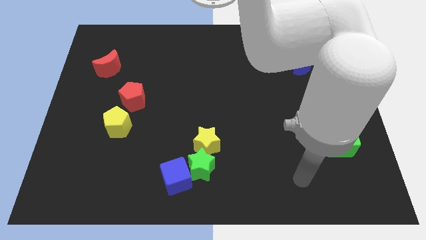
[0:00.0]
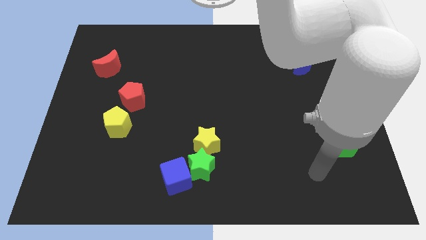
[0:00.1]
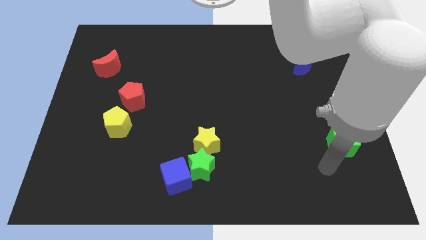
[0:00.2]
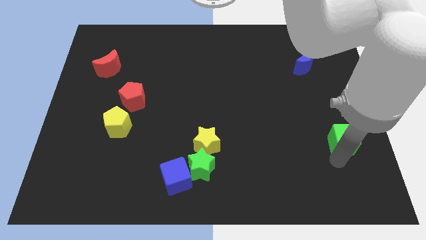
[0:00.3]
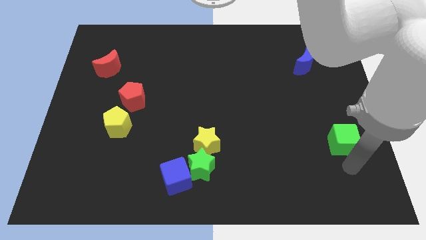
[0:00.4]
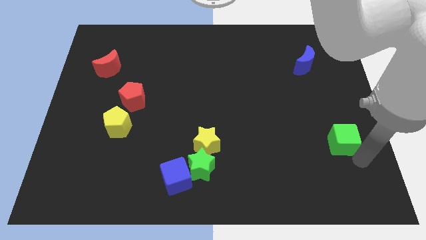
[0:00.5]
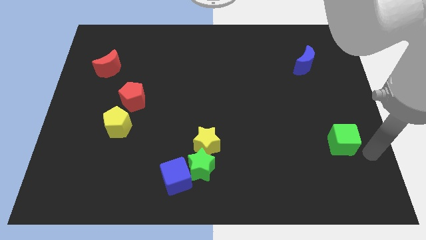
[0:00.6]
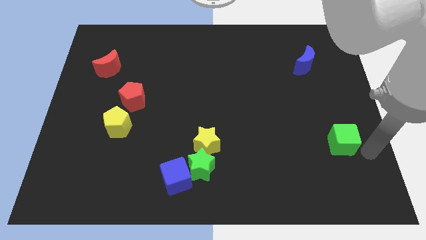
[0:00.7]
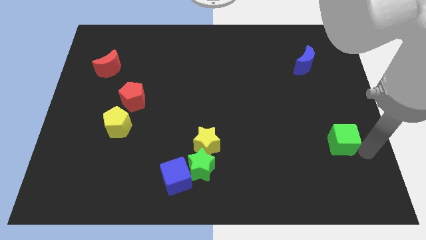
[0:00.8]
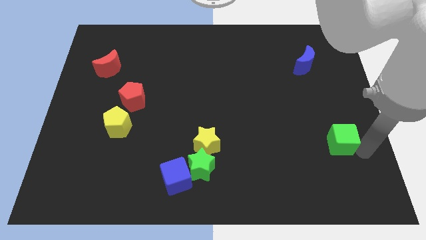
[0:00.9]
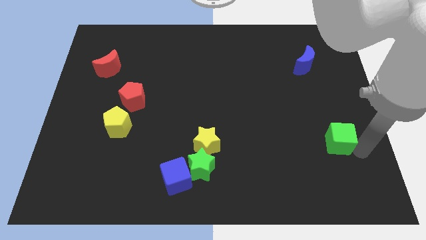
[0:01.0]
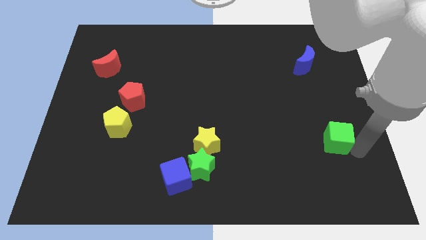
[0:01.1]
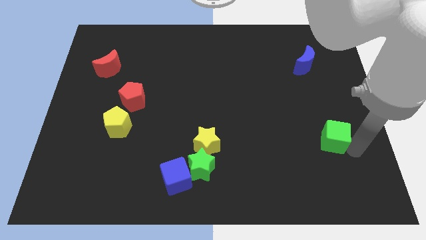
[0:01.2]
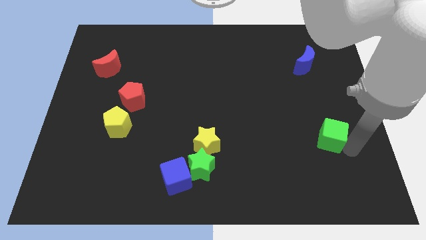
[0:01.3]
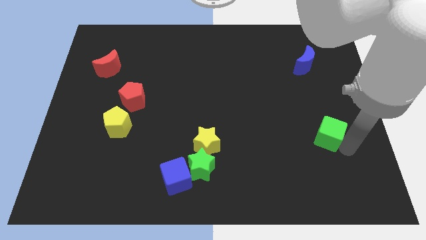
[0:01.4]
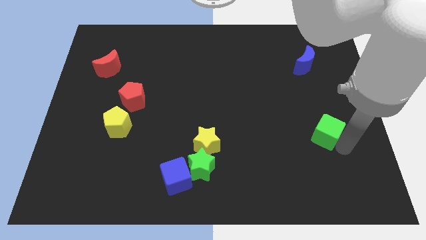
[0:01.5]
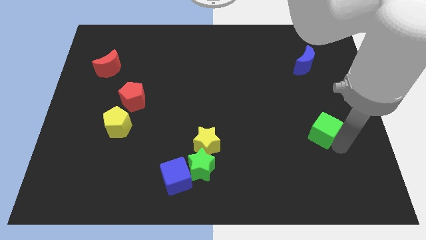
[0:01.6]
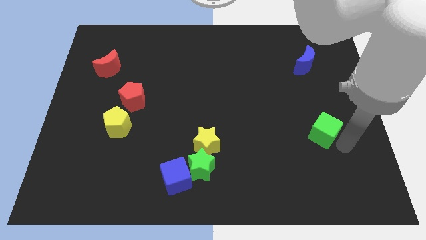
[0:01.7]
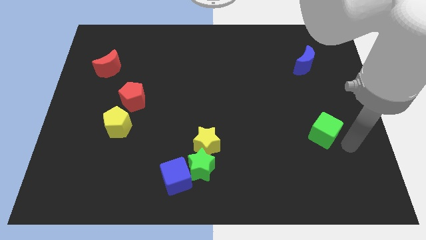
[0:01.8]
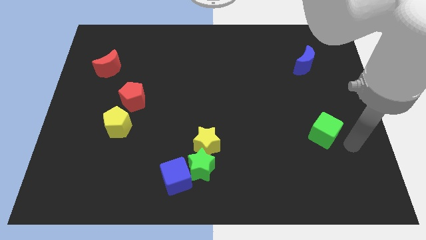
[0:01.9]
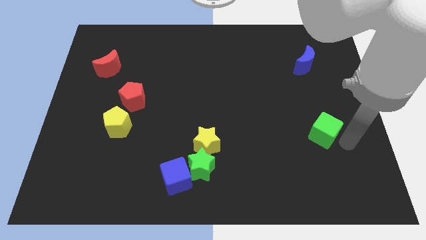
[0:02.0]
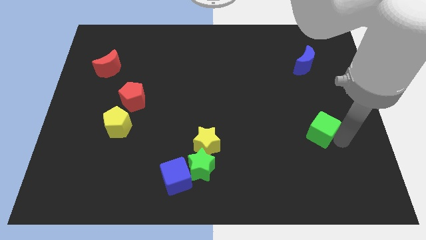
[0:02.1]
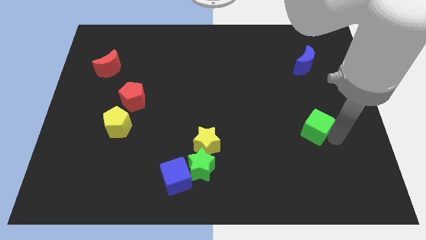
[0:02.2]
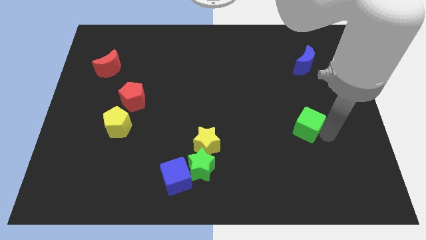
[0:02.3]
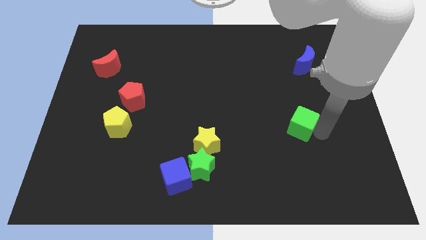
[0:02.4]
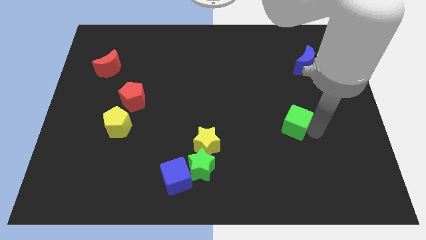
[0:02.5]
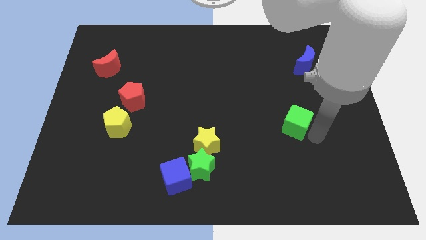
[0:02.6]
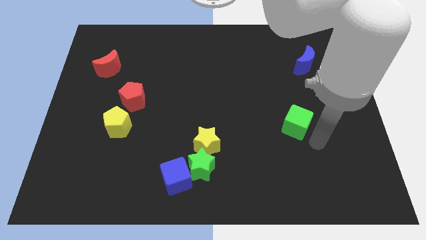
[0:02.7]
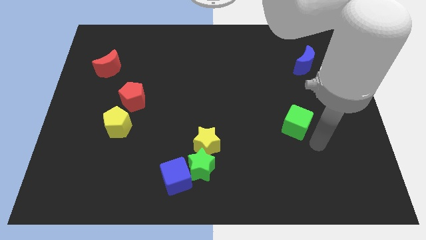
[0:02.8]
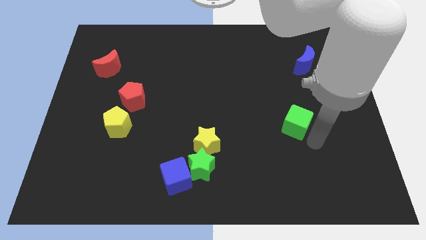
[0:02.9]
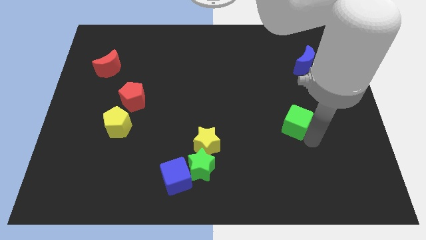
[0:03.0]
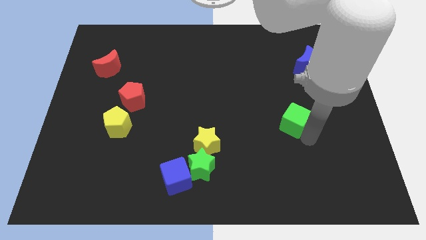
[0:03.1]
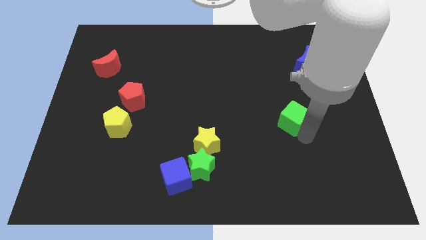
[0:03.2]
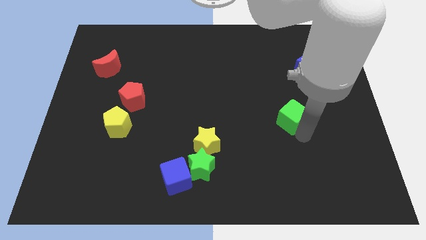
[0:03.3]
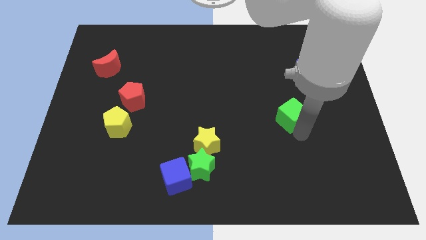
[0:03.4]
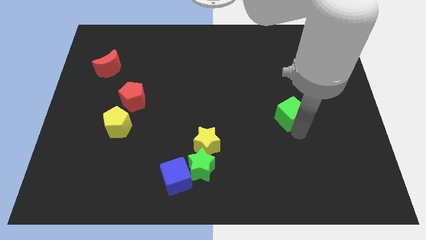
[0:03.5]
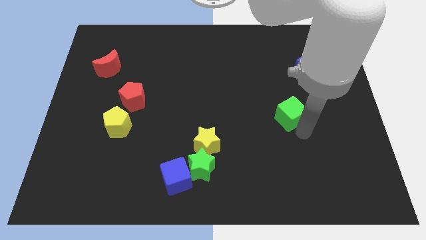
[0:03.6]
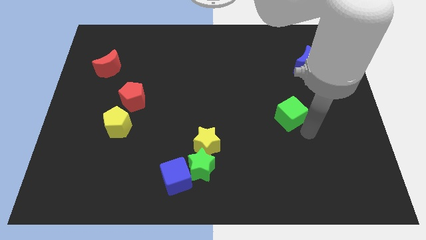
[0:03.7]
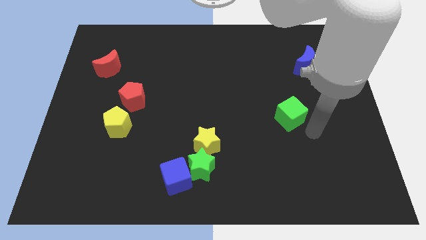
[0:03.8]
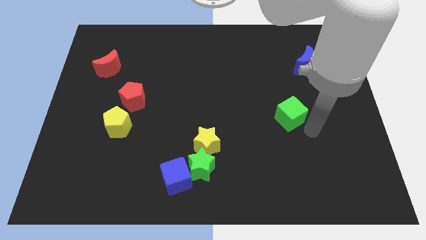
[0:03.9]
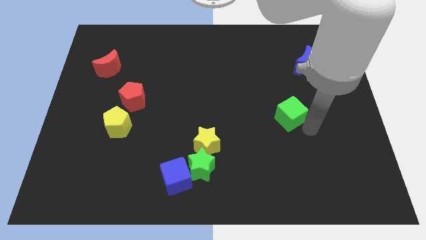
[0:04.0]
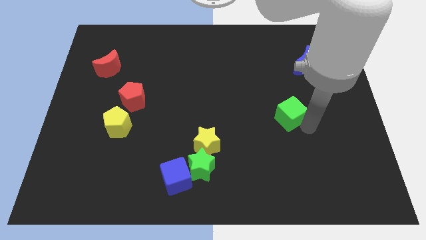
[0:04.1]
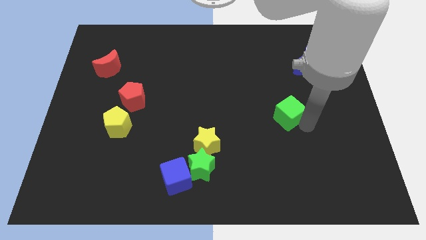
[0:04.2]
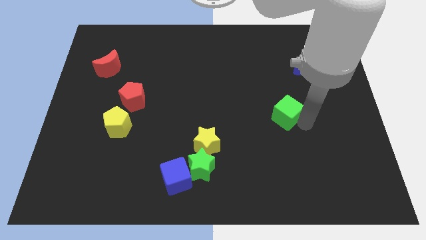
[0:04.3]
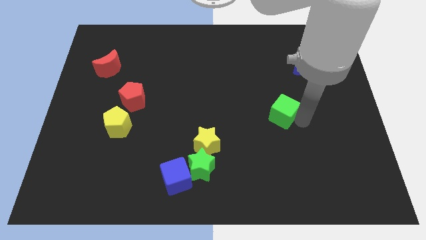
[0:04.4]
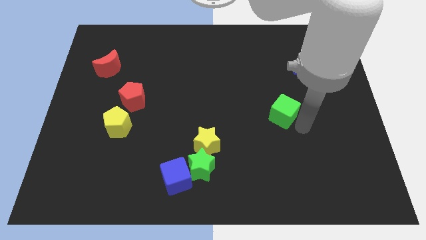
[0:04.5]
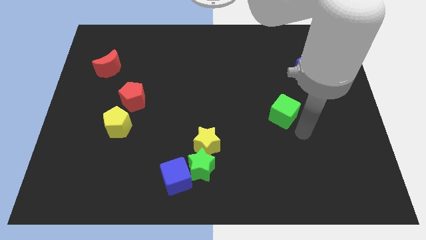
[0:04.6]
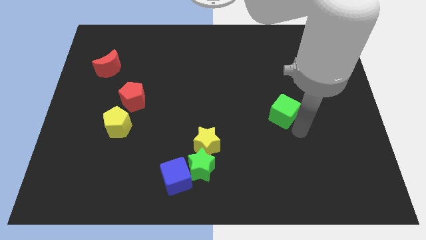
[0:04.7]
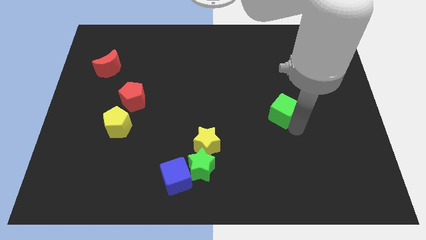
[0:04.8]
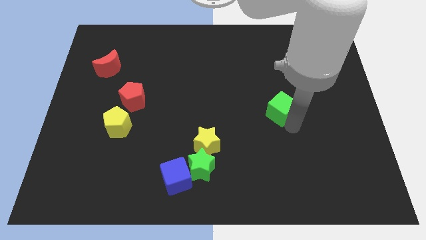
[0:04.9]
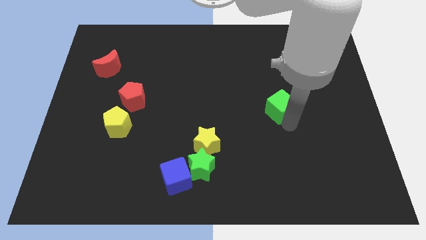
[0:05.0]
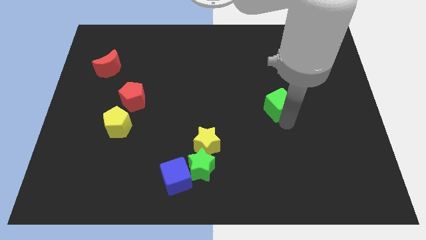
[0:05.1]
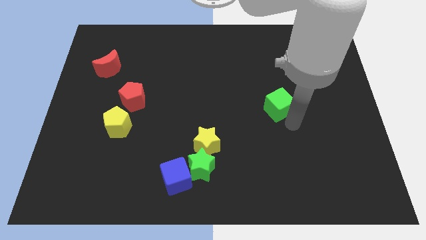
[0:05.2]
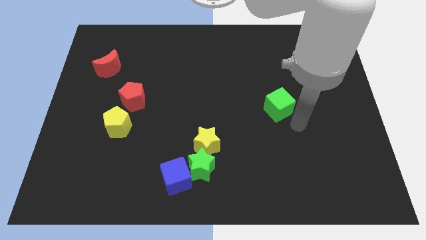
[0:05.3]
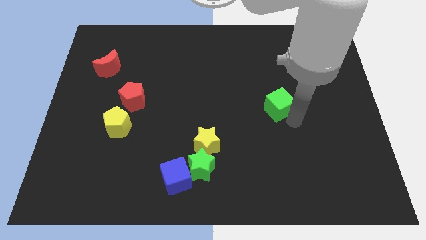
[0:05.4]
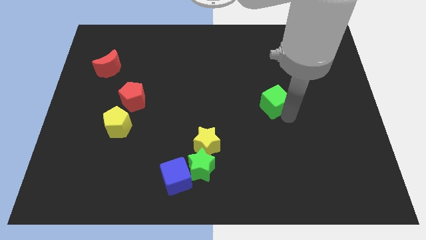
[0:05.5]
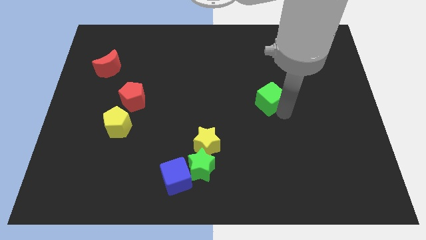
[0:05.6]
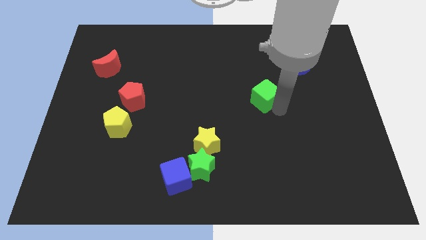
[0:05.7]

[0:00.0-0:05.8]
move the green cube upwards and left

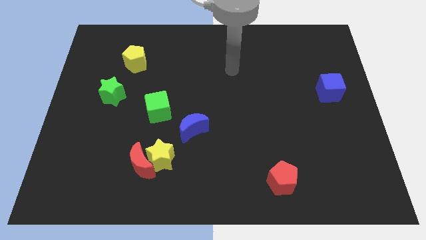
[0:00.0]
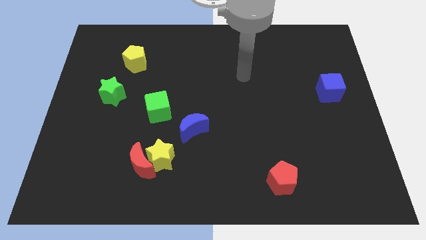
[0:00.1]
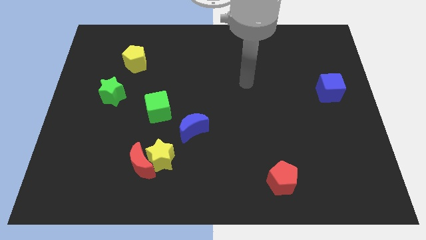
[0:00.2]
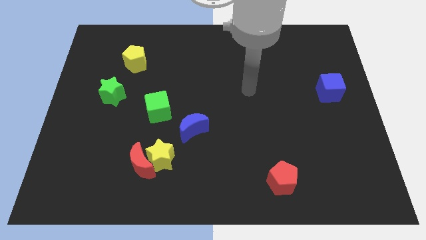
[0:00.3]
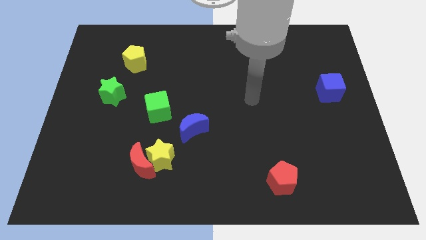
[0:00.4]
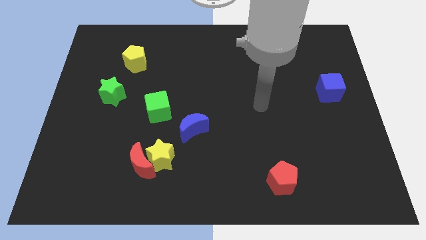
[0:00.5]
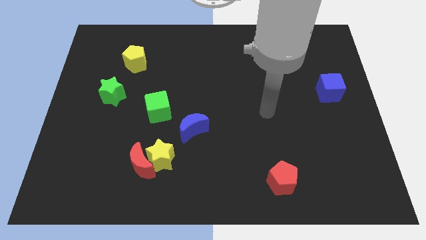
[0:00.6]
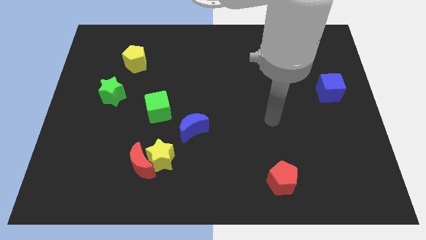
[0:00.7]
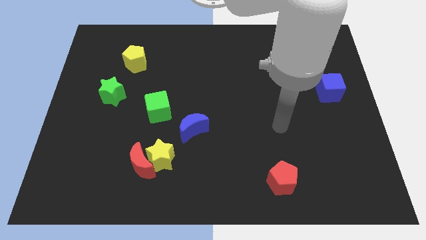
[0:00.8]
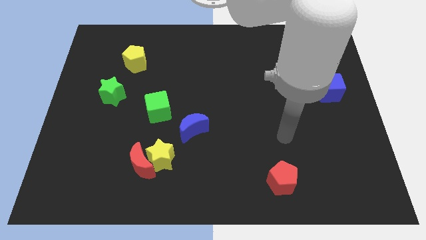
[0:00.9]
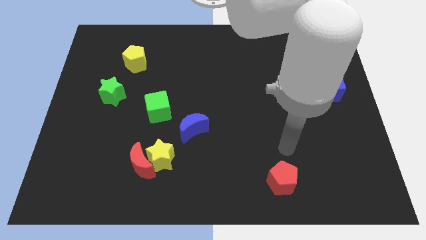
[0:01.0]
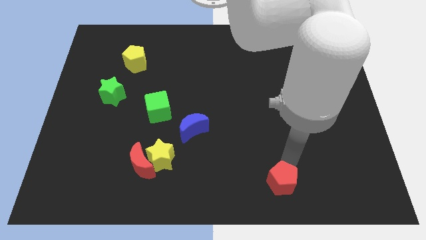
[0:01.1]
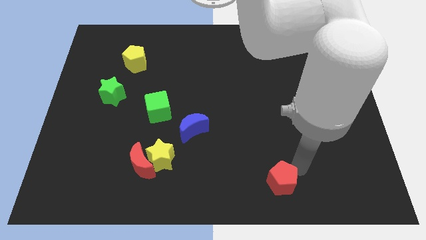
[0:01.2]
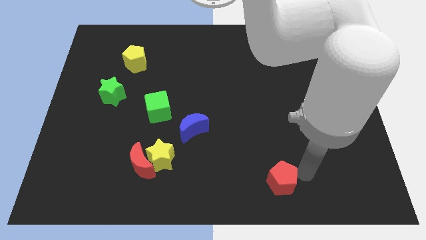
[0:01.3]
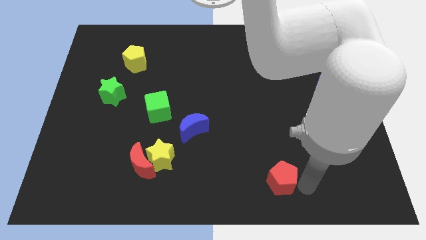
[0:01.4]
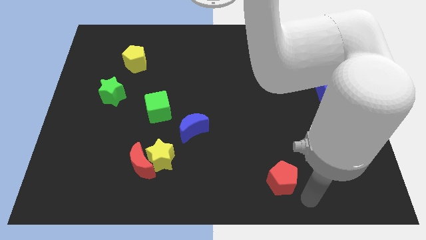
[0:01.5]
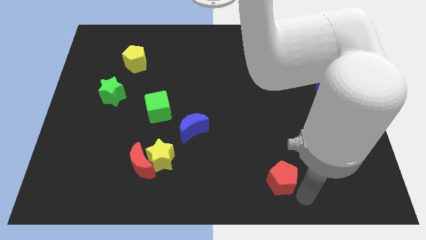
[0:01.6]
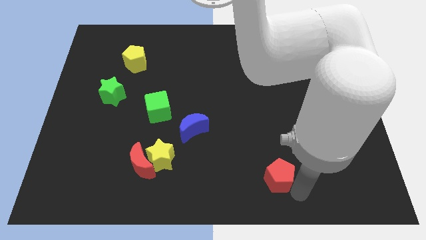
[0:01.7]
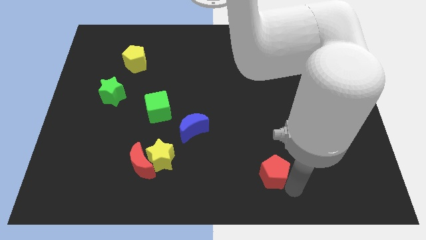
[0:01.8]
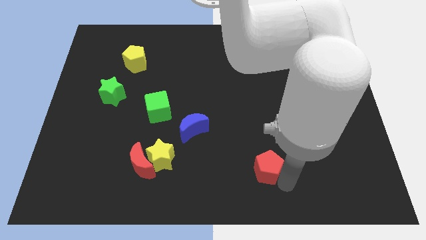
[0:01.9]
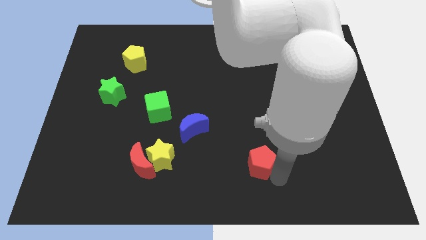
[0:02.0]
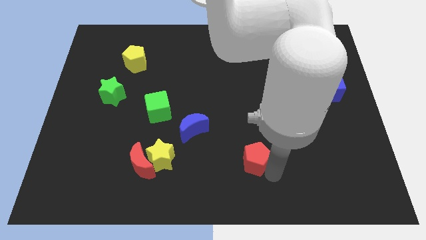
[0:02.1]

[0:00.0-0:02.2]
push the red pentagon a bit up and to the left diagonally

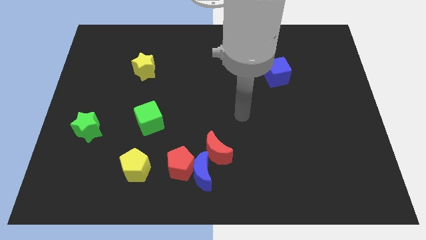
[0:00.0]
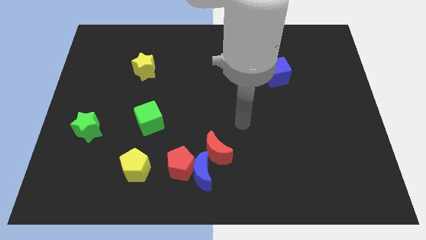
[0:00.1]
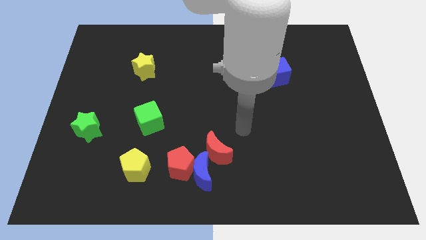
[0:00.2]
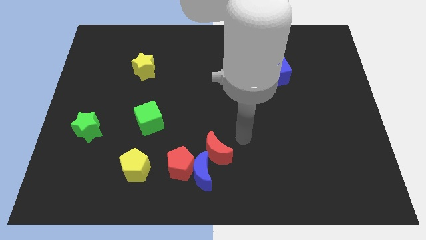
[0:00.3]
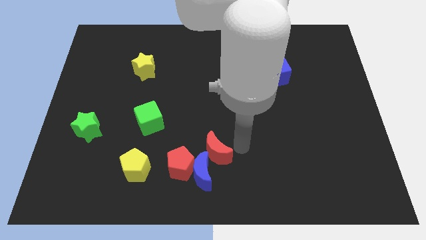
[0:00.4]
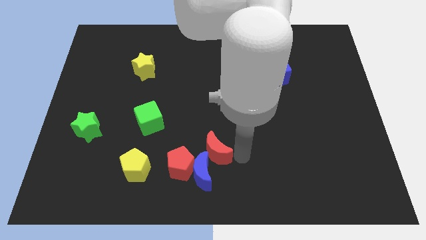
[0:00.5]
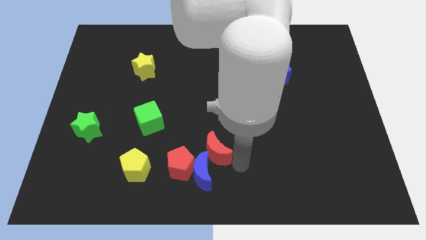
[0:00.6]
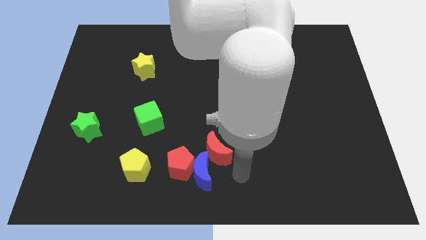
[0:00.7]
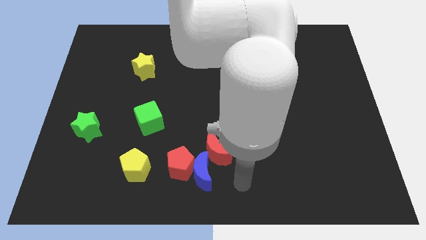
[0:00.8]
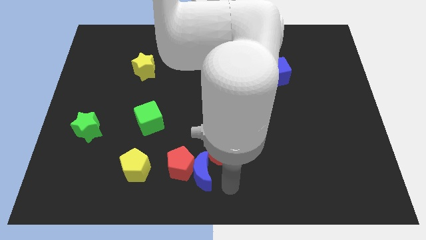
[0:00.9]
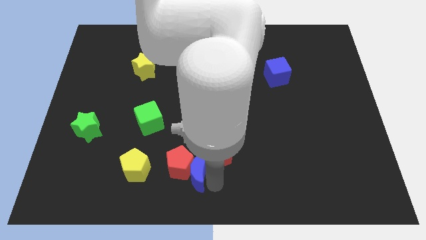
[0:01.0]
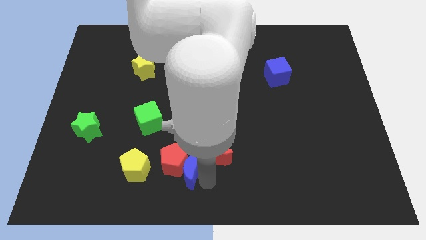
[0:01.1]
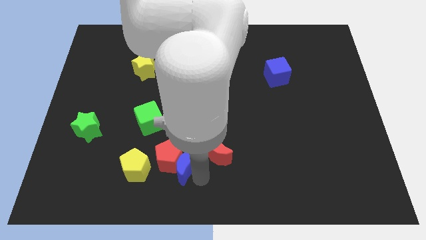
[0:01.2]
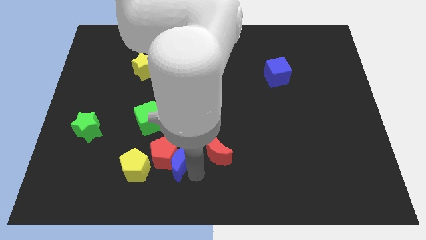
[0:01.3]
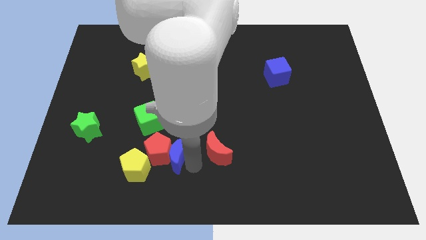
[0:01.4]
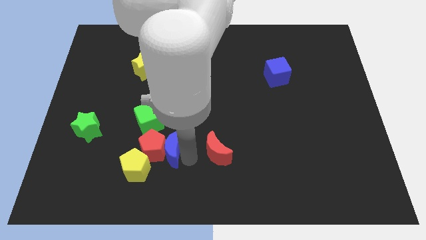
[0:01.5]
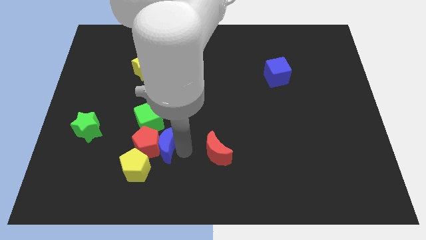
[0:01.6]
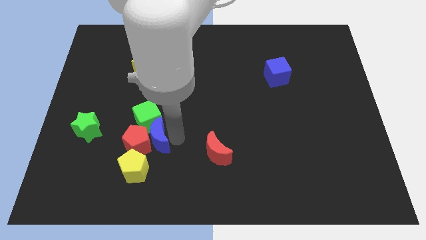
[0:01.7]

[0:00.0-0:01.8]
move the red pentagon a bit left
